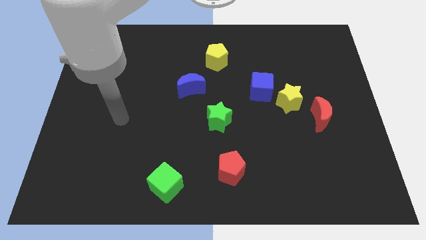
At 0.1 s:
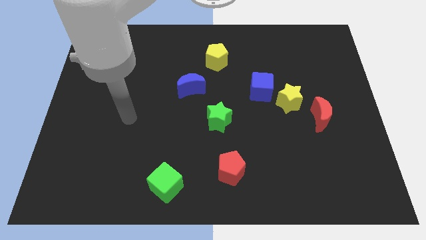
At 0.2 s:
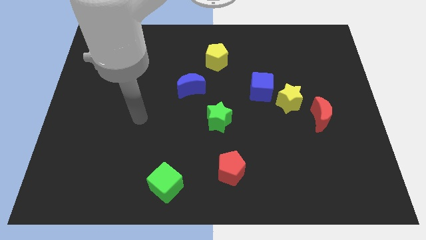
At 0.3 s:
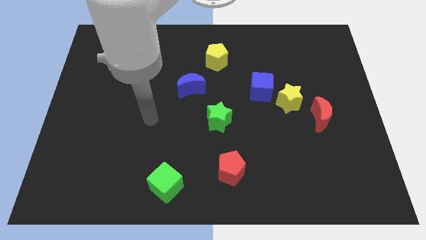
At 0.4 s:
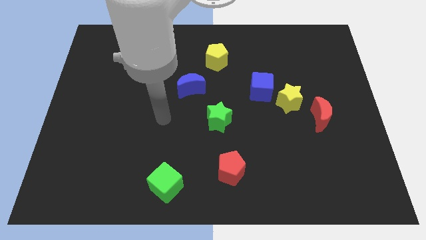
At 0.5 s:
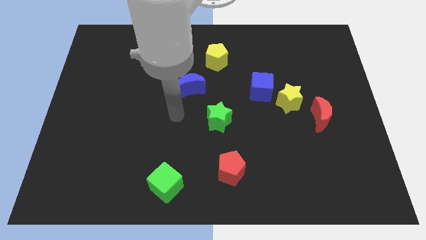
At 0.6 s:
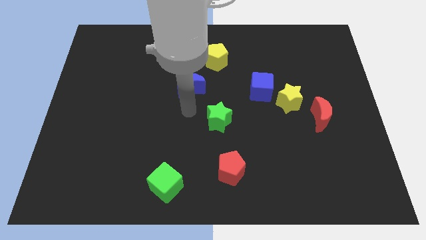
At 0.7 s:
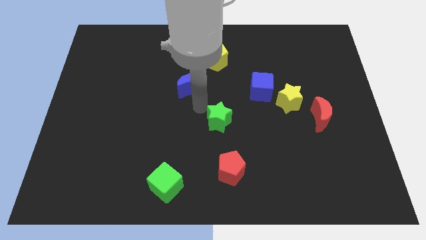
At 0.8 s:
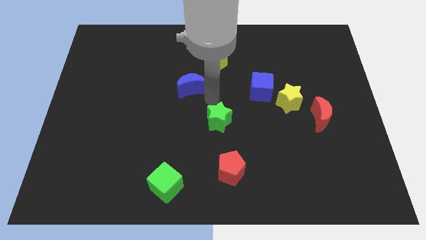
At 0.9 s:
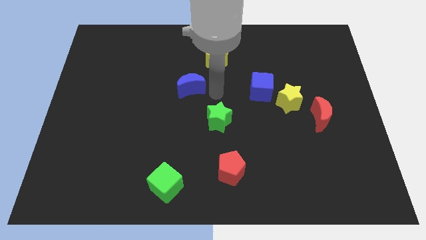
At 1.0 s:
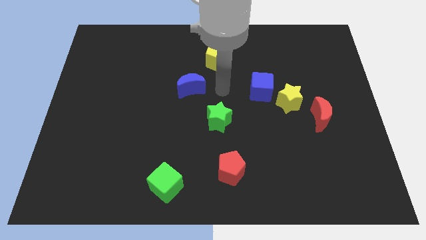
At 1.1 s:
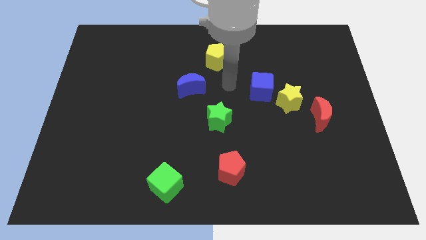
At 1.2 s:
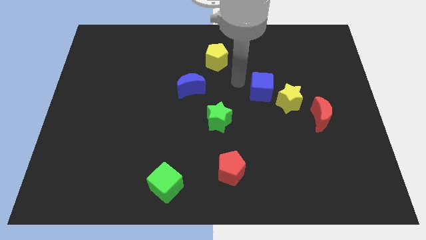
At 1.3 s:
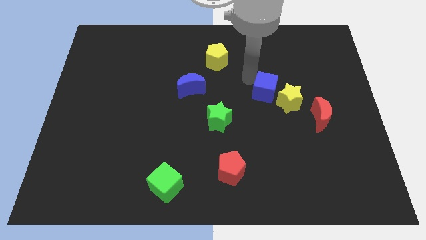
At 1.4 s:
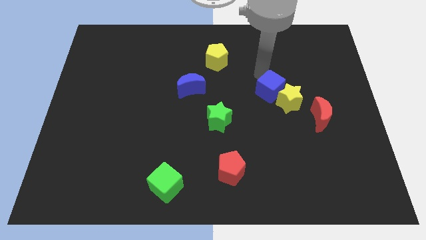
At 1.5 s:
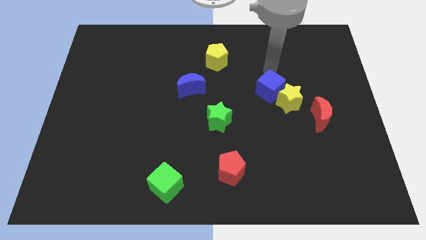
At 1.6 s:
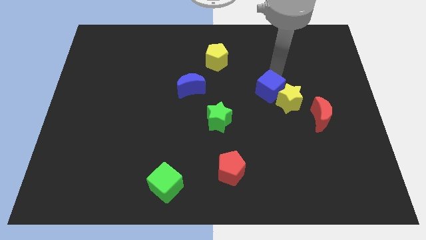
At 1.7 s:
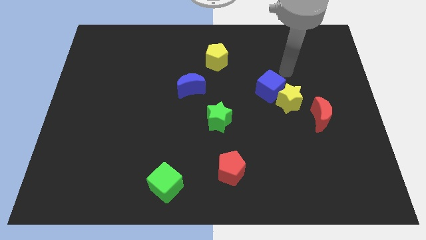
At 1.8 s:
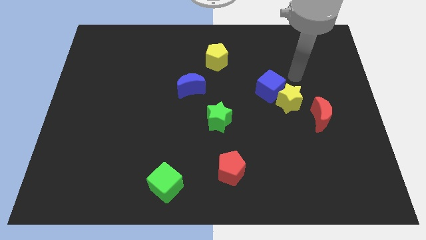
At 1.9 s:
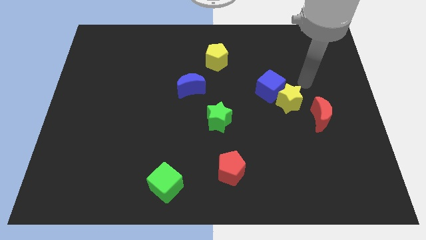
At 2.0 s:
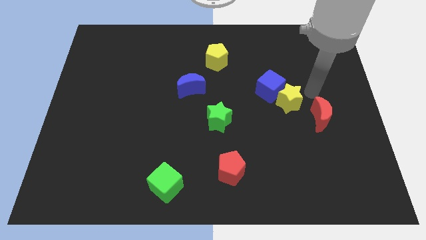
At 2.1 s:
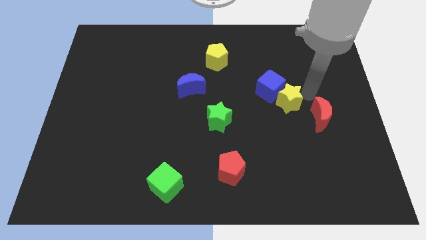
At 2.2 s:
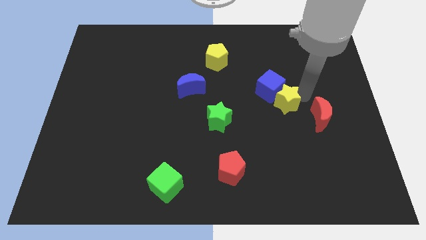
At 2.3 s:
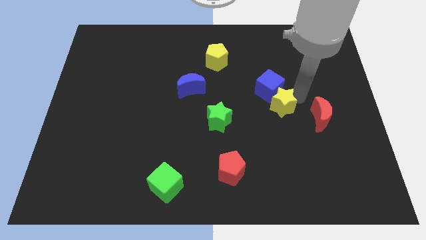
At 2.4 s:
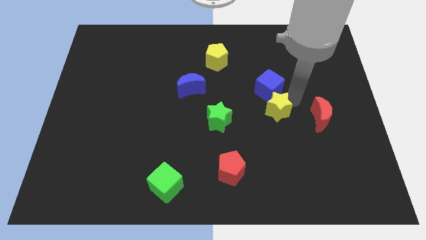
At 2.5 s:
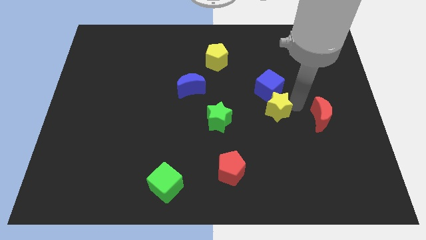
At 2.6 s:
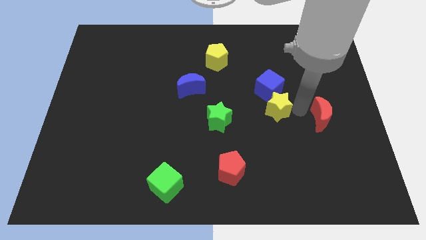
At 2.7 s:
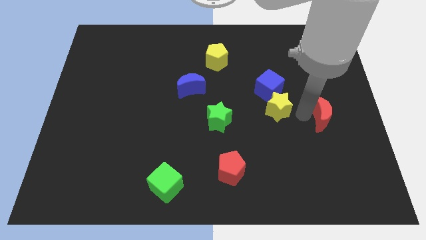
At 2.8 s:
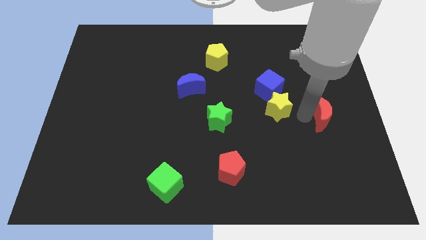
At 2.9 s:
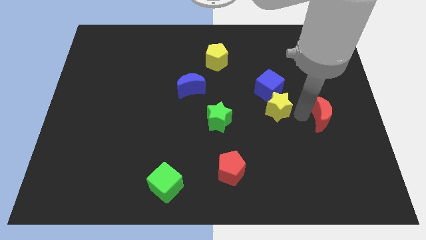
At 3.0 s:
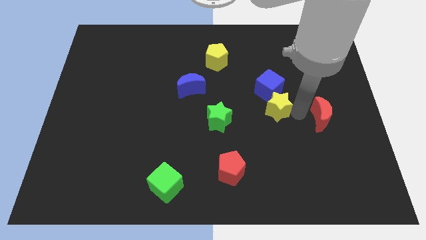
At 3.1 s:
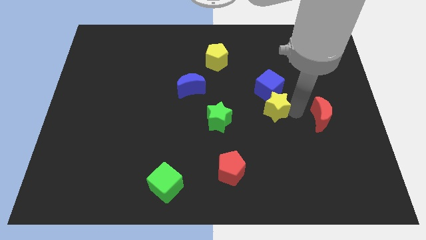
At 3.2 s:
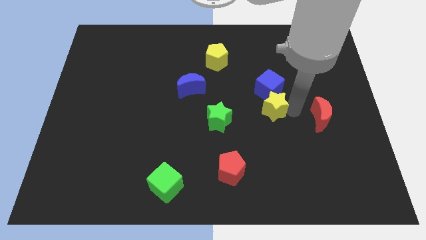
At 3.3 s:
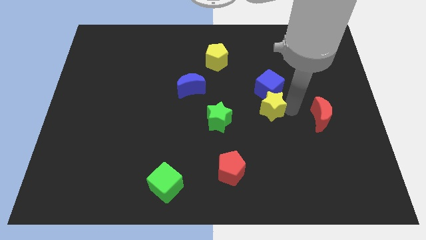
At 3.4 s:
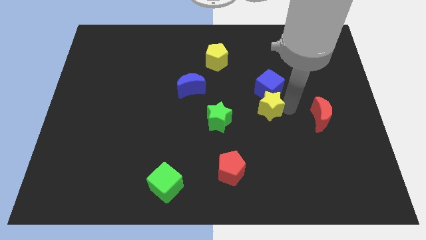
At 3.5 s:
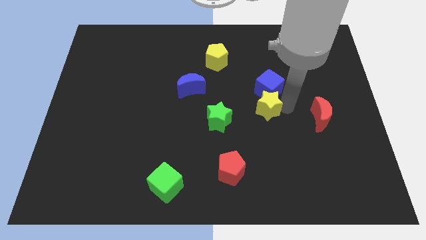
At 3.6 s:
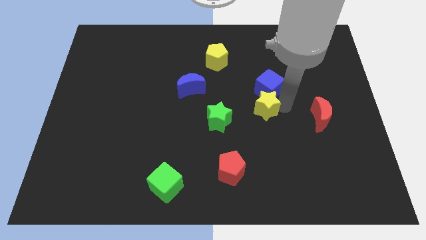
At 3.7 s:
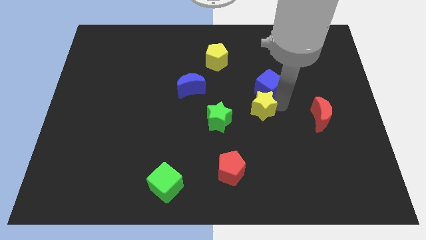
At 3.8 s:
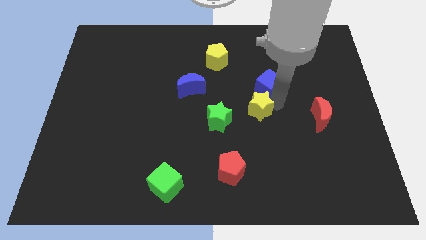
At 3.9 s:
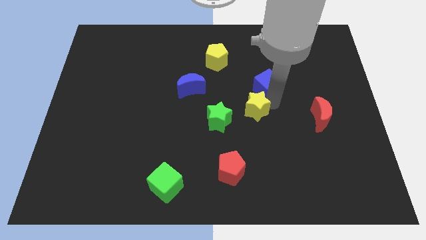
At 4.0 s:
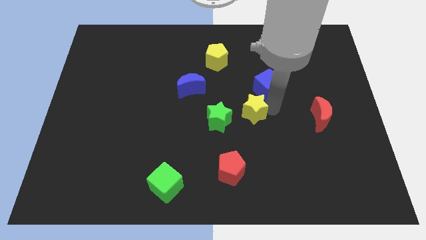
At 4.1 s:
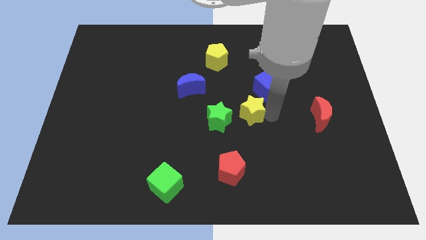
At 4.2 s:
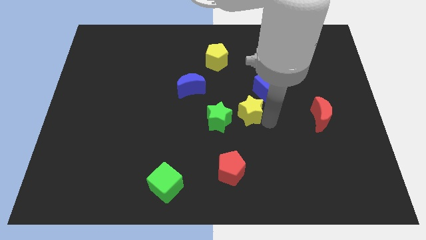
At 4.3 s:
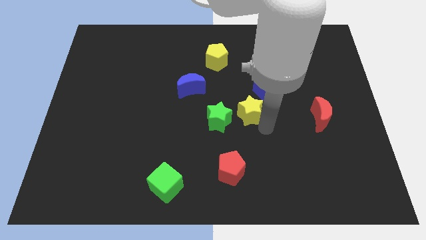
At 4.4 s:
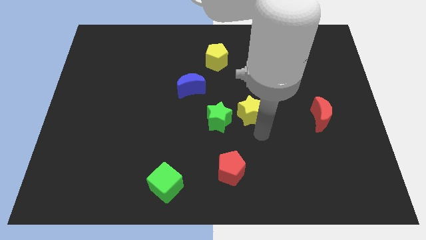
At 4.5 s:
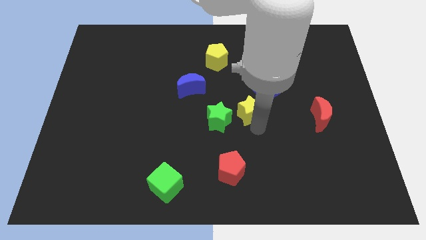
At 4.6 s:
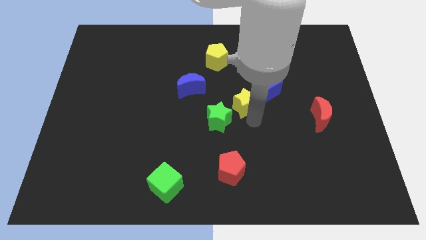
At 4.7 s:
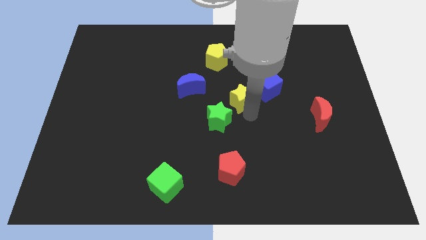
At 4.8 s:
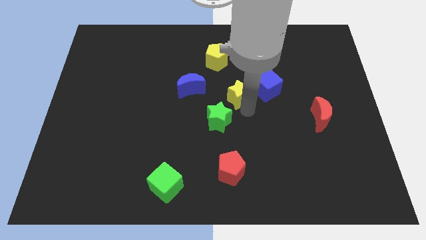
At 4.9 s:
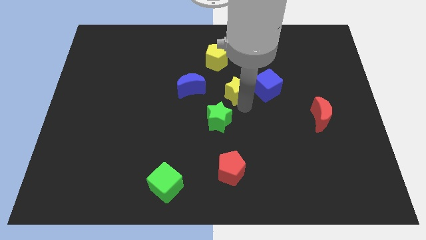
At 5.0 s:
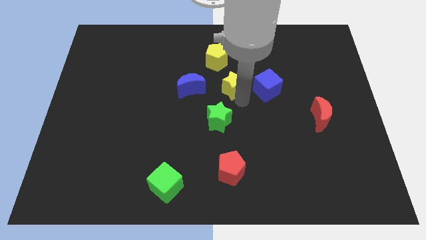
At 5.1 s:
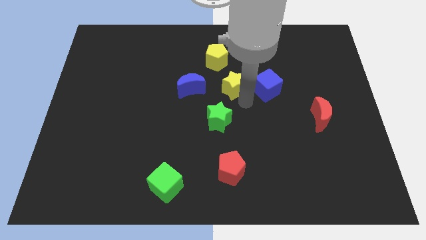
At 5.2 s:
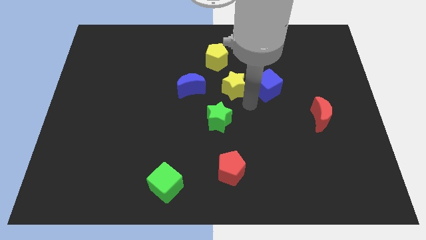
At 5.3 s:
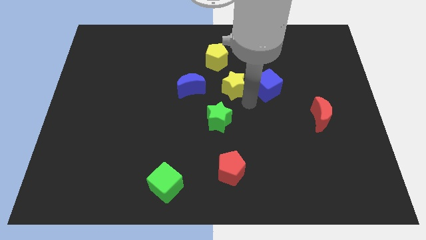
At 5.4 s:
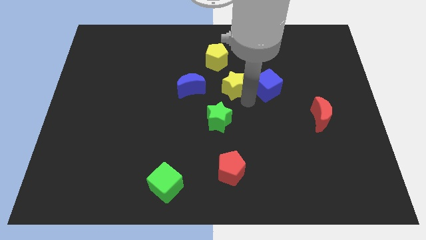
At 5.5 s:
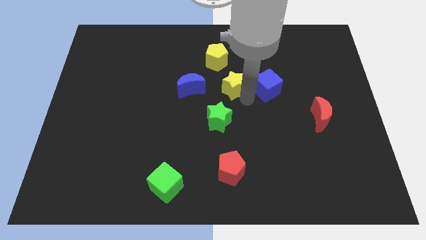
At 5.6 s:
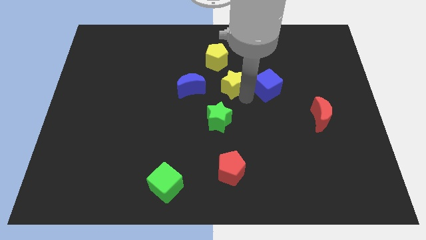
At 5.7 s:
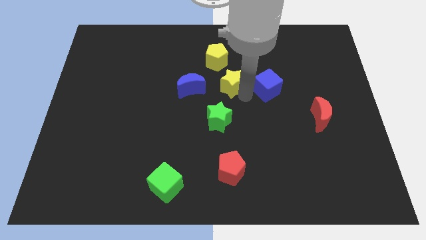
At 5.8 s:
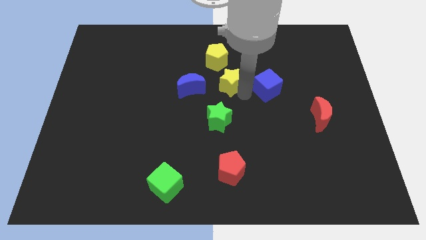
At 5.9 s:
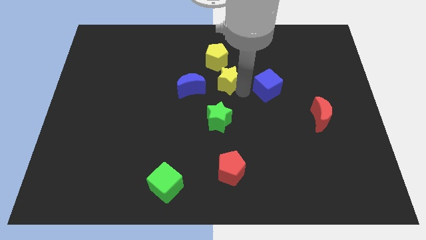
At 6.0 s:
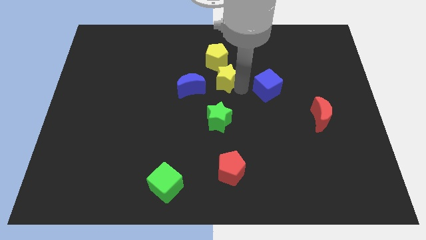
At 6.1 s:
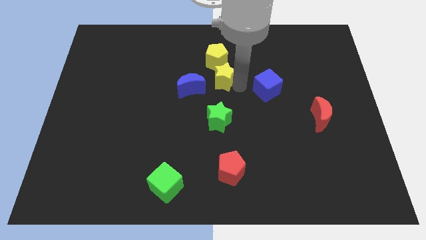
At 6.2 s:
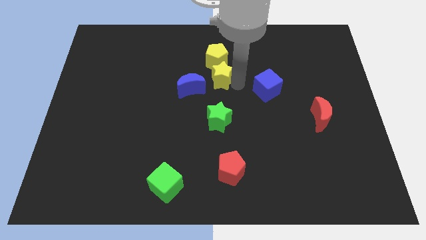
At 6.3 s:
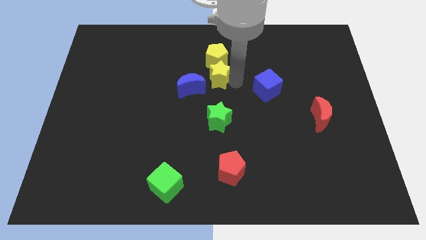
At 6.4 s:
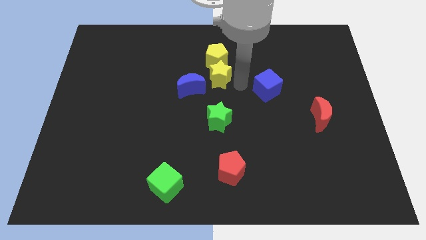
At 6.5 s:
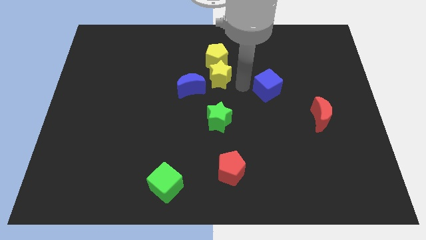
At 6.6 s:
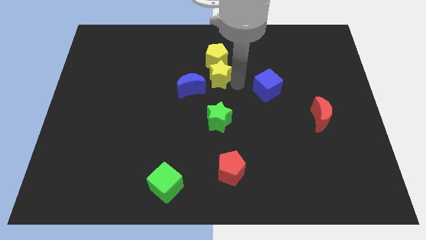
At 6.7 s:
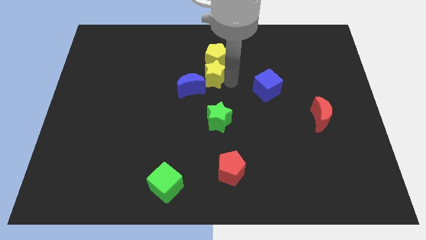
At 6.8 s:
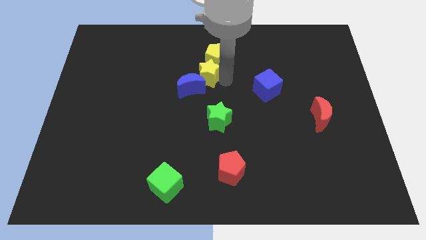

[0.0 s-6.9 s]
move the yellow star to the top side of the blue moon
